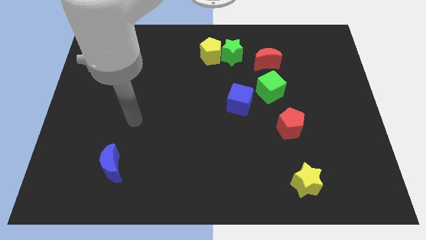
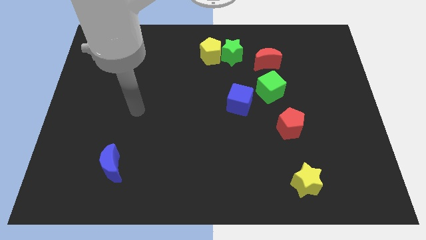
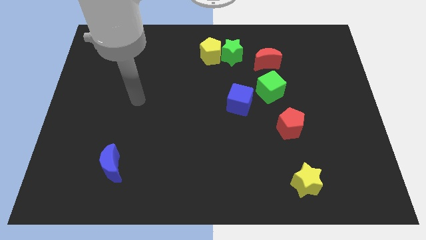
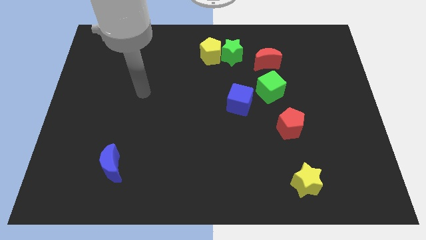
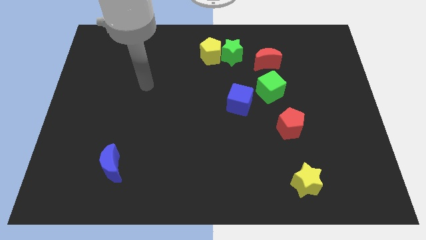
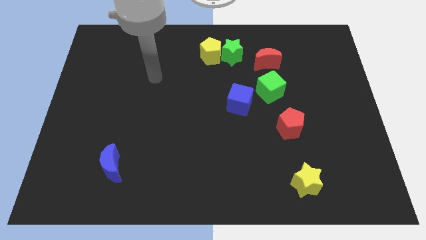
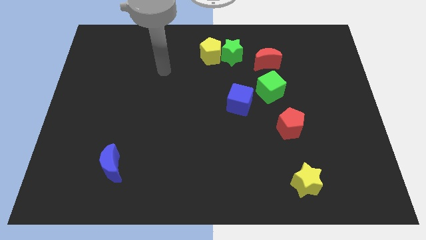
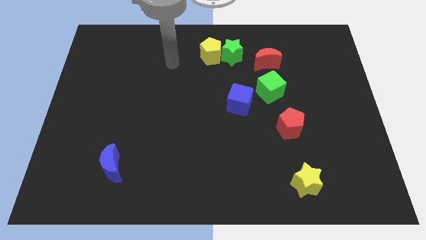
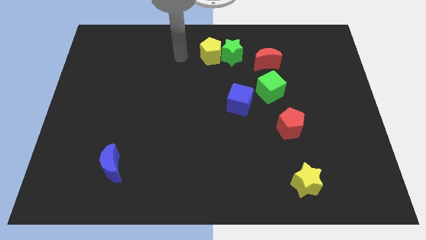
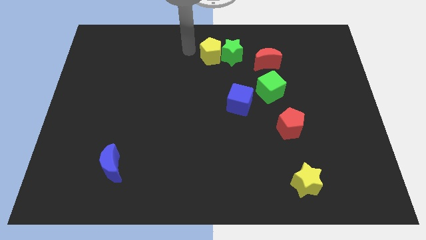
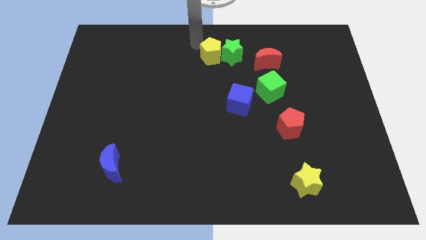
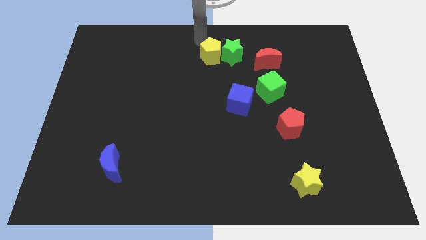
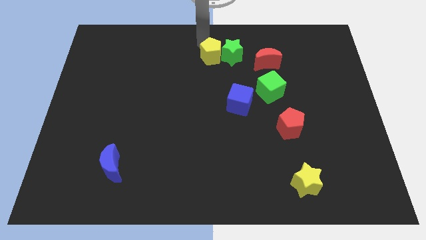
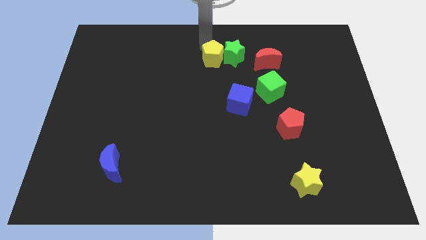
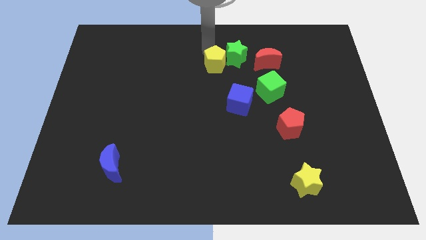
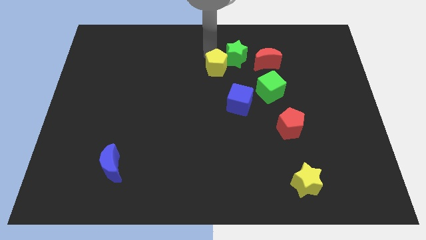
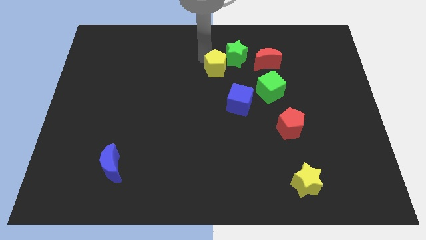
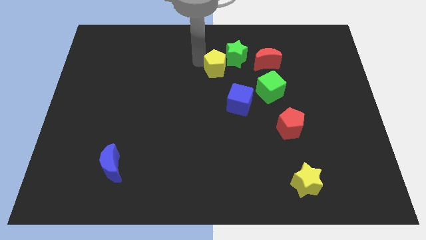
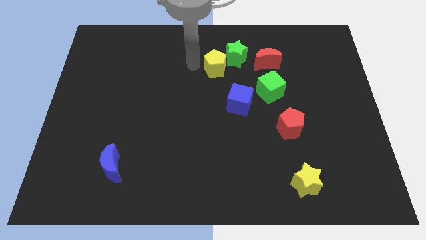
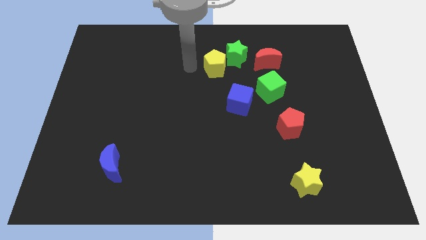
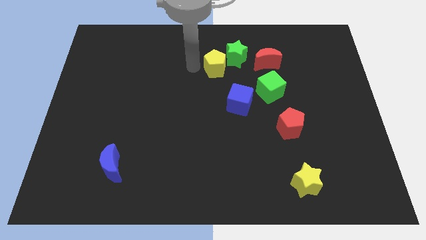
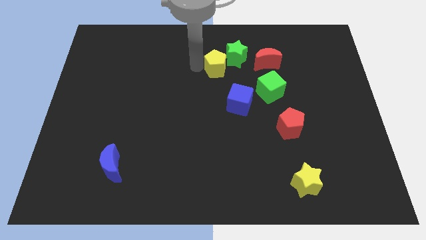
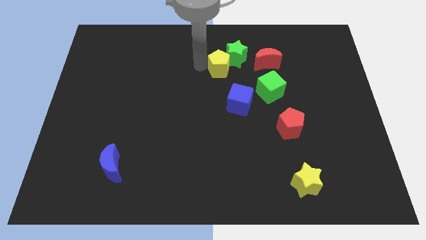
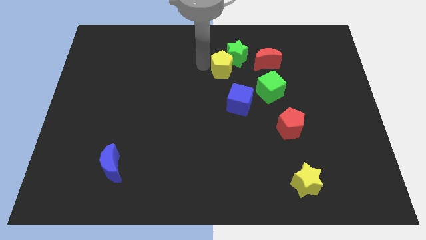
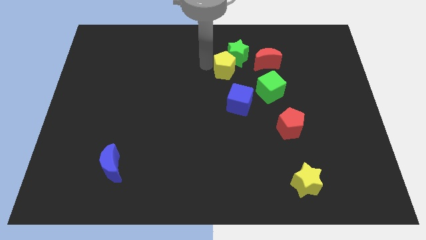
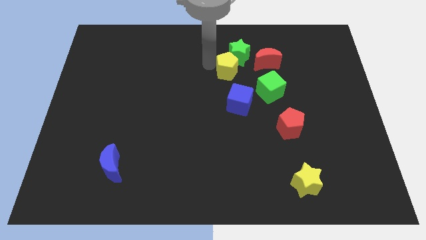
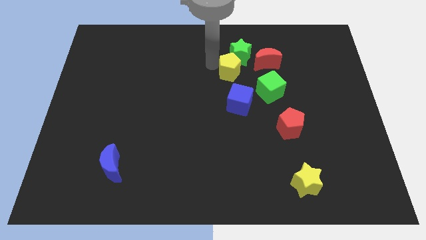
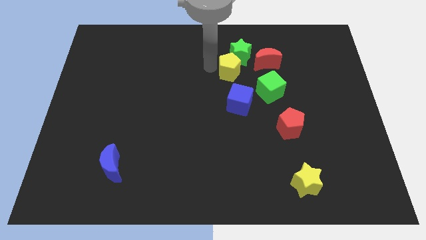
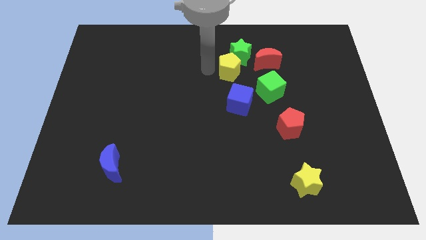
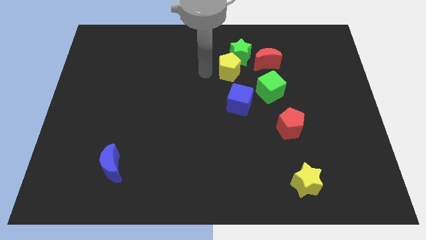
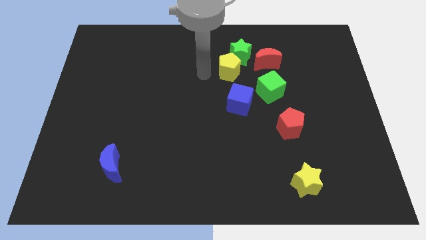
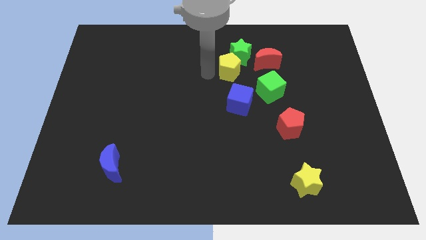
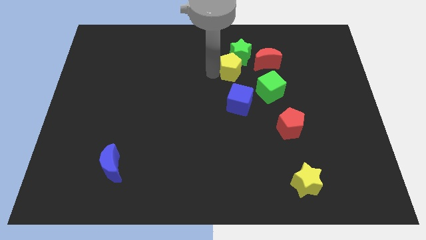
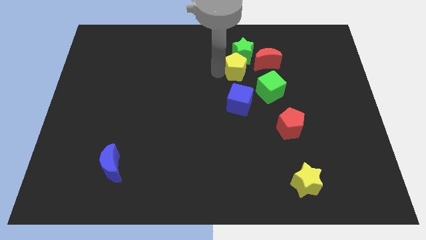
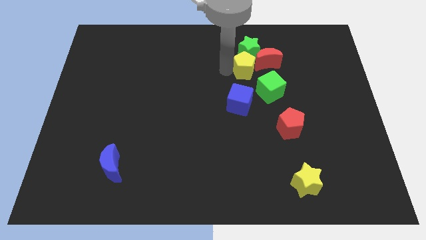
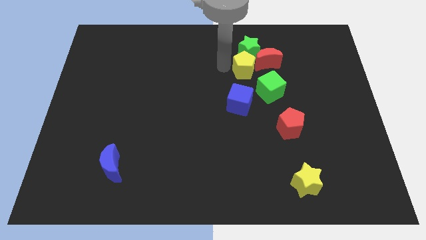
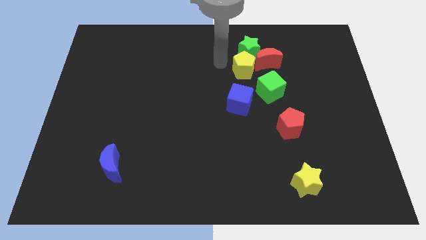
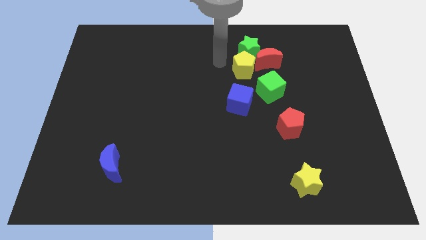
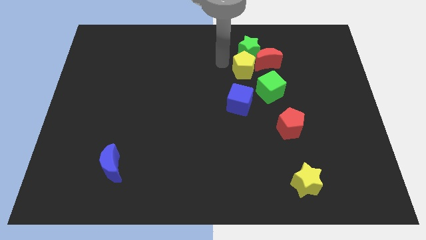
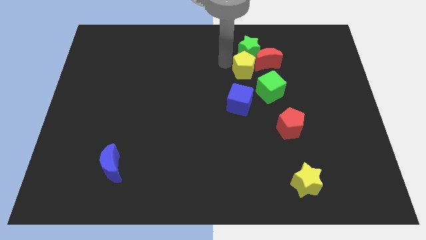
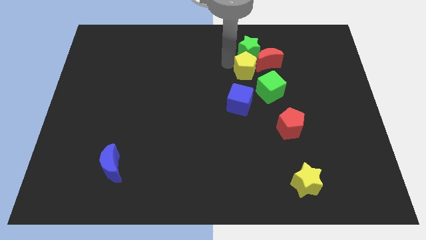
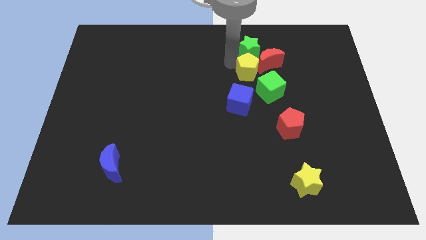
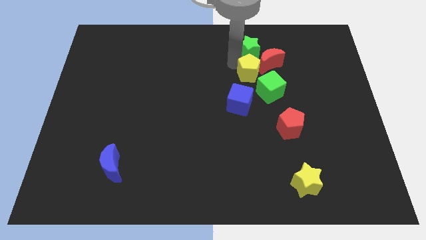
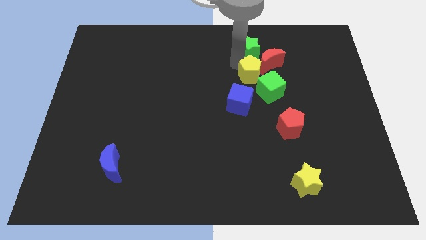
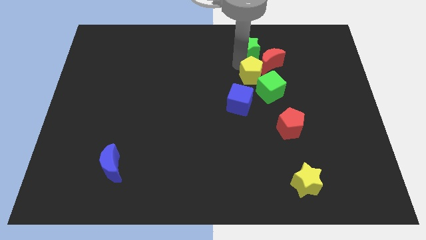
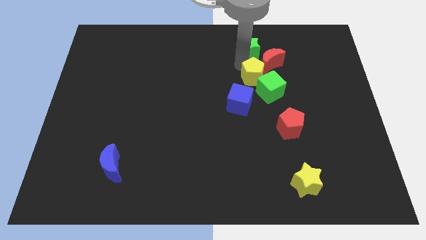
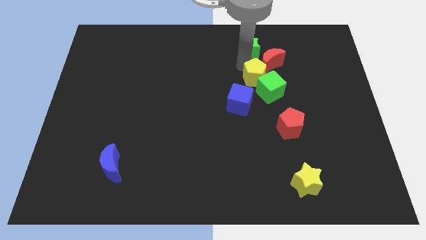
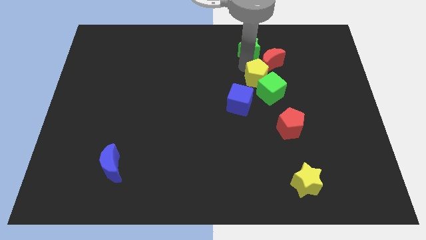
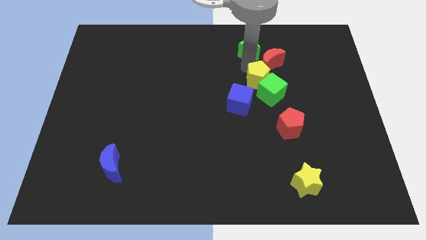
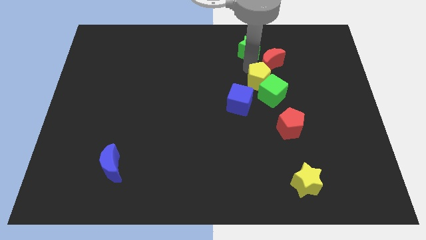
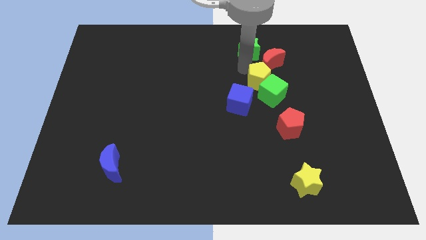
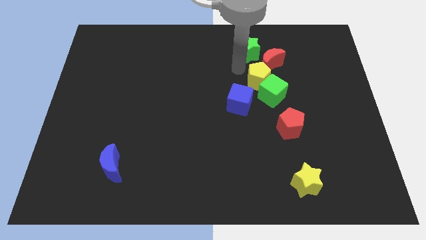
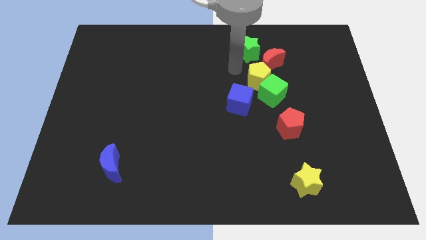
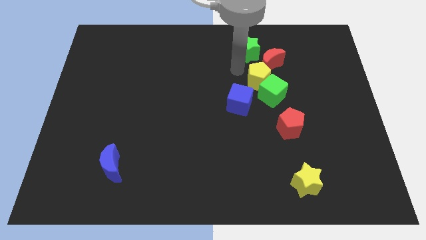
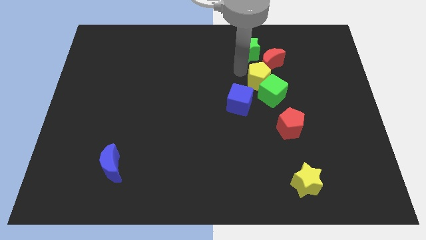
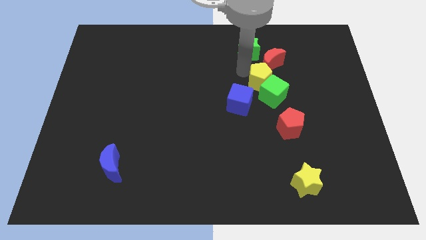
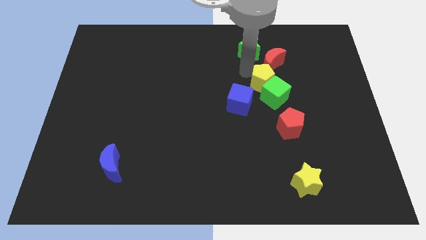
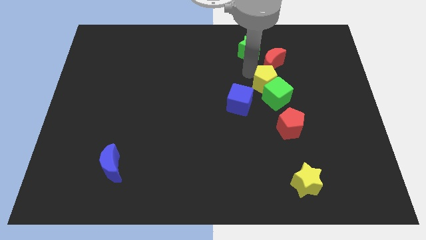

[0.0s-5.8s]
push the yellow pentagon to the top of the red pentagon
